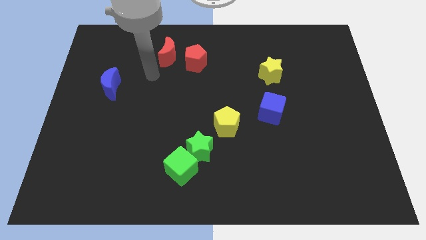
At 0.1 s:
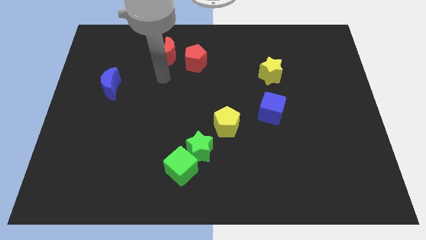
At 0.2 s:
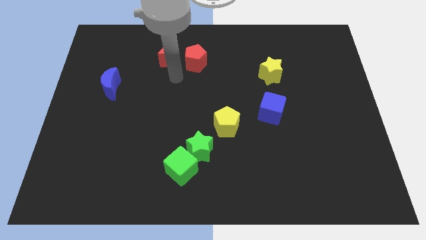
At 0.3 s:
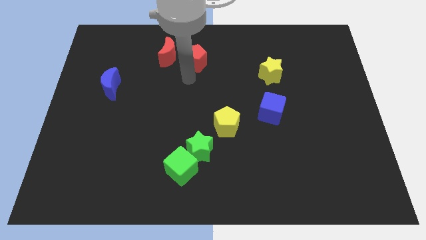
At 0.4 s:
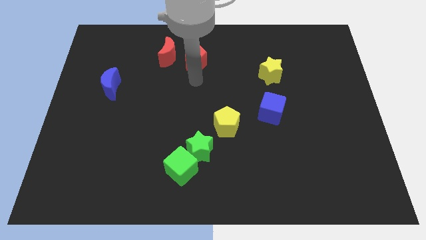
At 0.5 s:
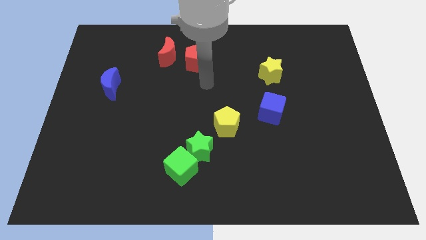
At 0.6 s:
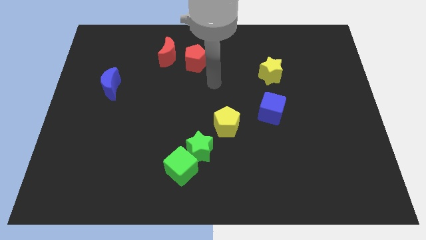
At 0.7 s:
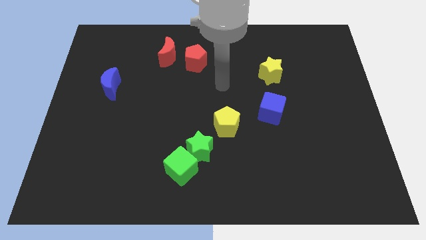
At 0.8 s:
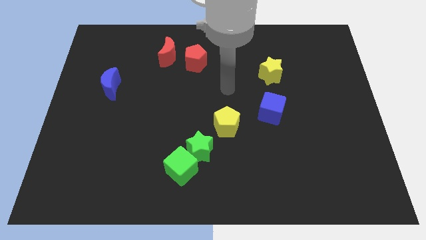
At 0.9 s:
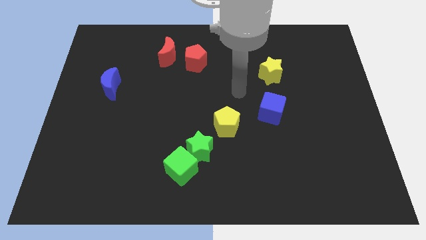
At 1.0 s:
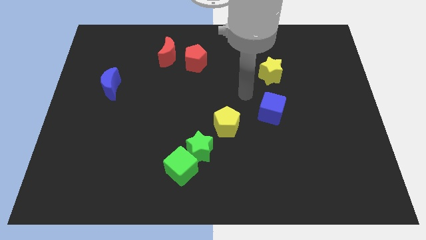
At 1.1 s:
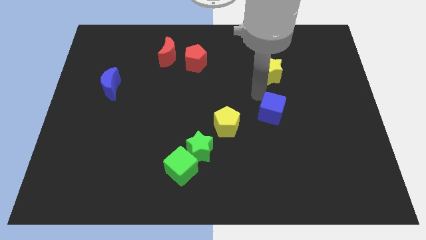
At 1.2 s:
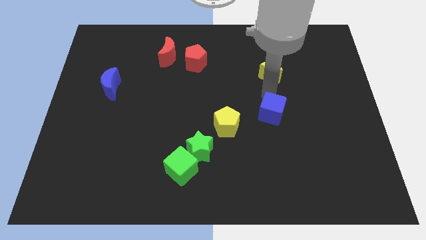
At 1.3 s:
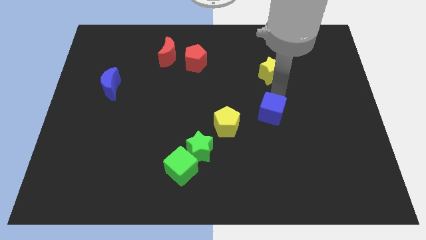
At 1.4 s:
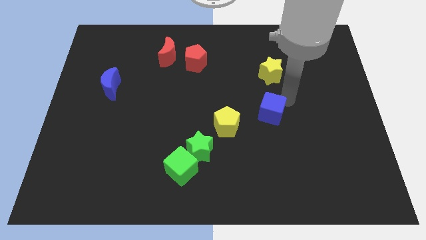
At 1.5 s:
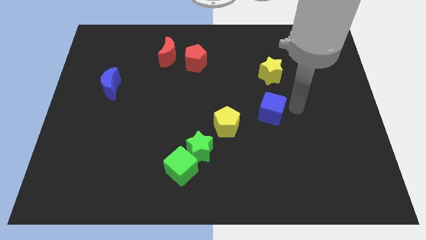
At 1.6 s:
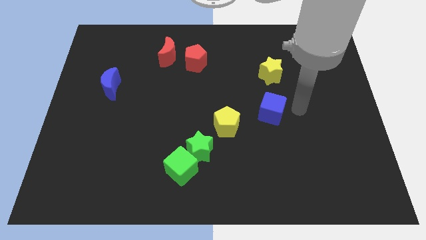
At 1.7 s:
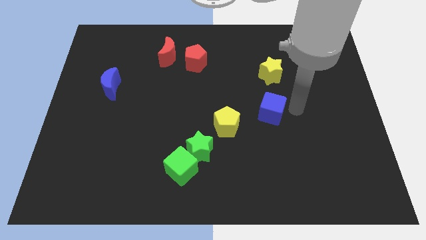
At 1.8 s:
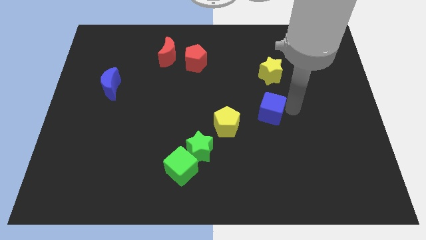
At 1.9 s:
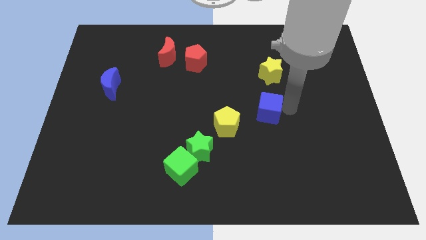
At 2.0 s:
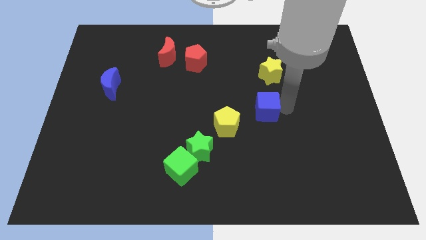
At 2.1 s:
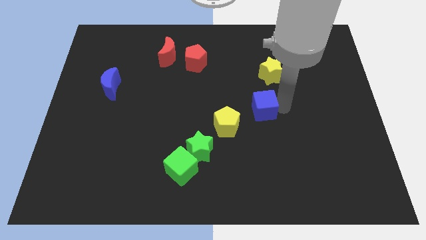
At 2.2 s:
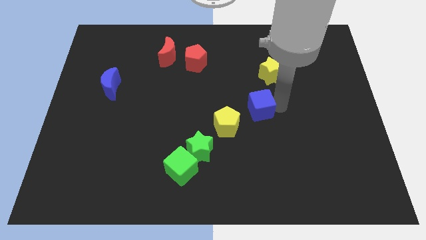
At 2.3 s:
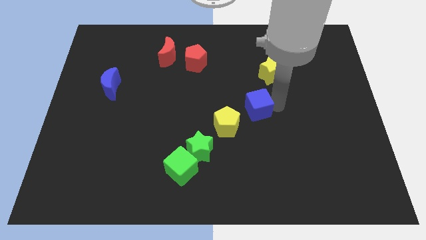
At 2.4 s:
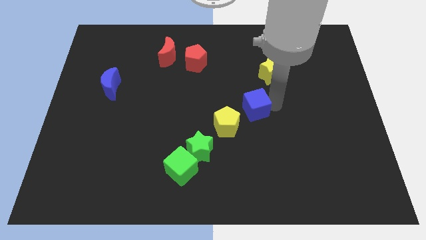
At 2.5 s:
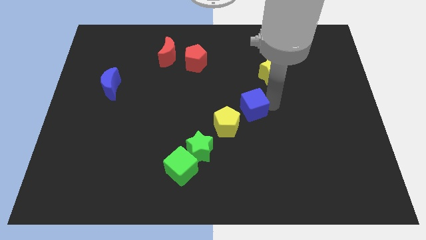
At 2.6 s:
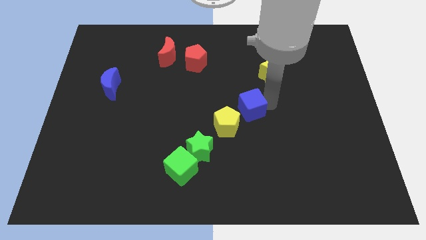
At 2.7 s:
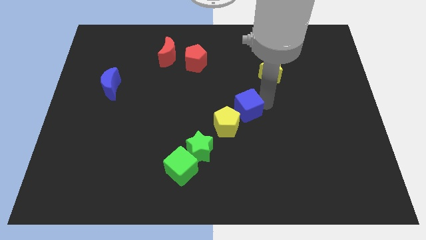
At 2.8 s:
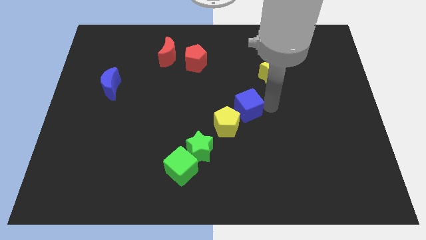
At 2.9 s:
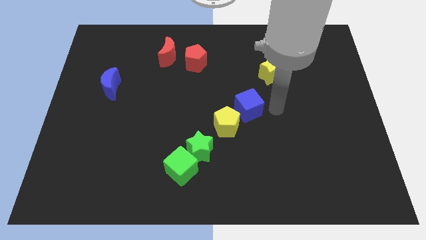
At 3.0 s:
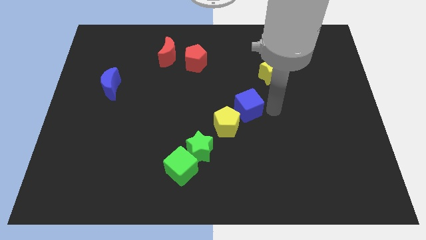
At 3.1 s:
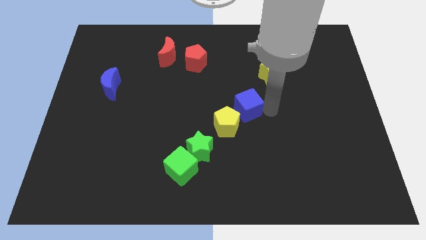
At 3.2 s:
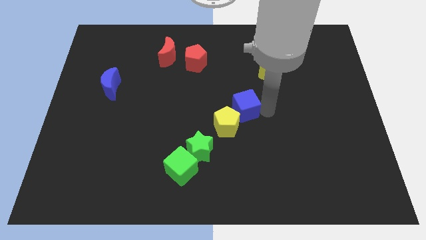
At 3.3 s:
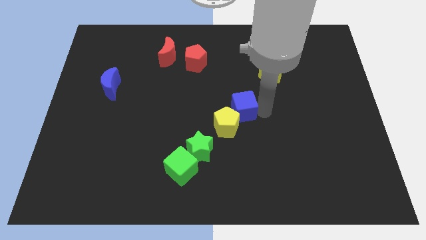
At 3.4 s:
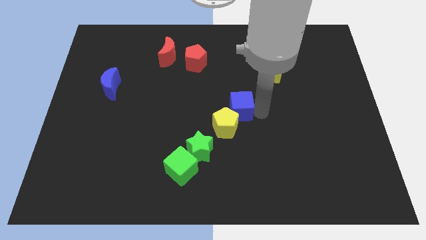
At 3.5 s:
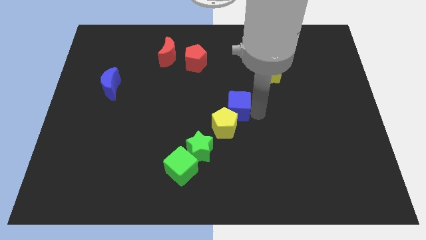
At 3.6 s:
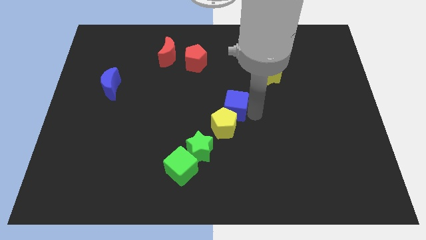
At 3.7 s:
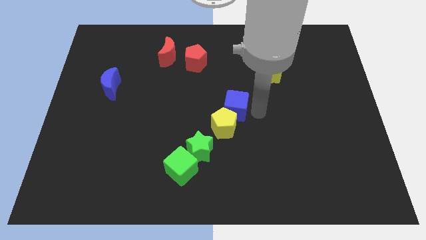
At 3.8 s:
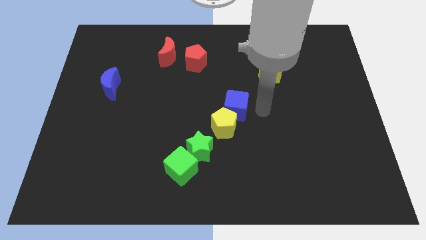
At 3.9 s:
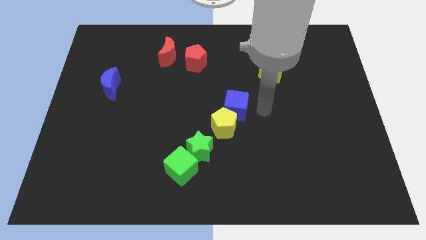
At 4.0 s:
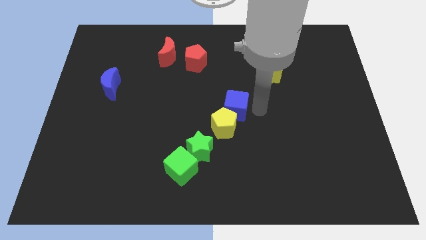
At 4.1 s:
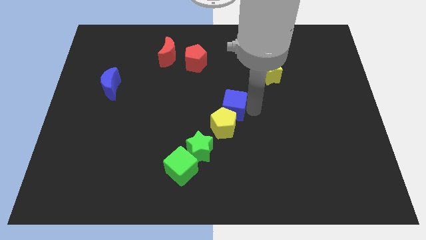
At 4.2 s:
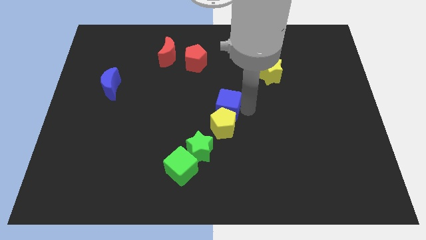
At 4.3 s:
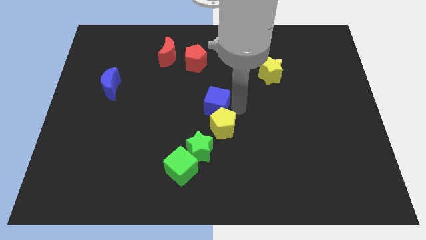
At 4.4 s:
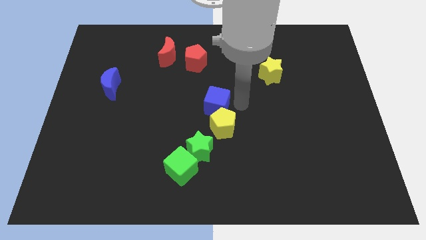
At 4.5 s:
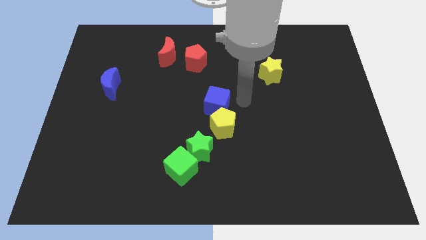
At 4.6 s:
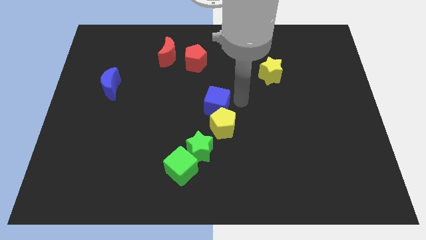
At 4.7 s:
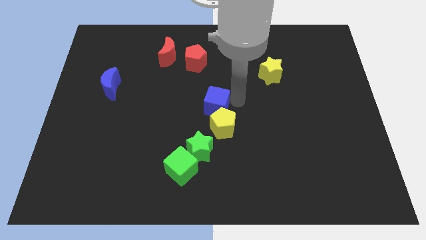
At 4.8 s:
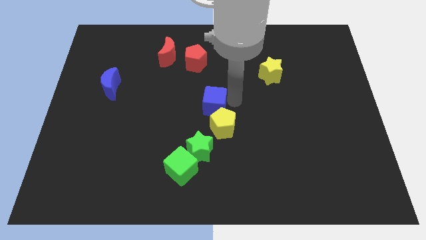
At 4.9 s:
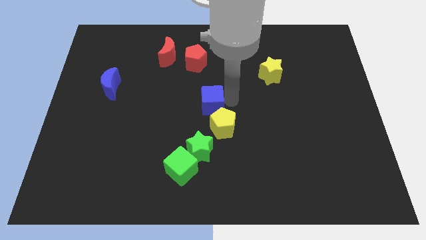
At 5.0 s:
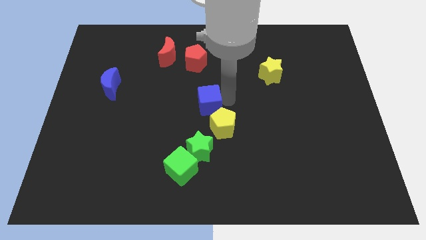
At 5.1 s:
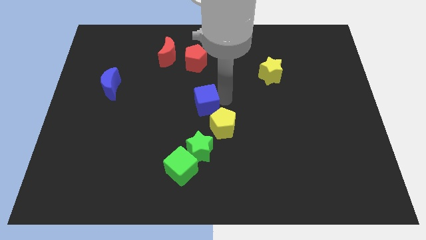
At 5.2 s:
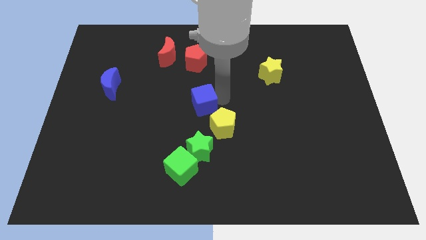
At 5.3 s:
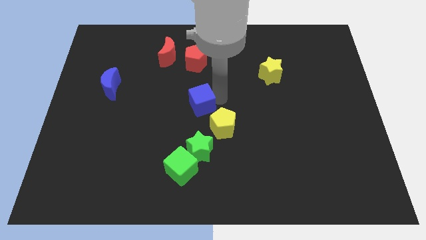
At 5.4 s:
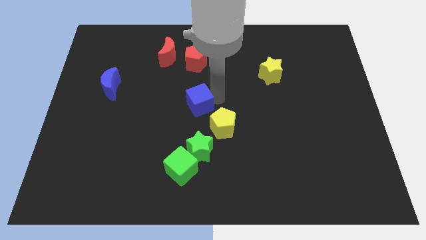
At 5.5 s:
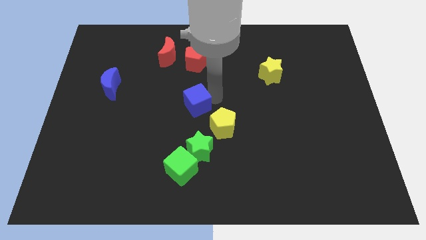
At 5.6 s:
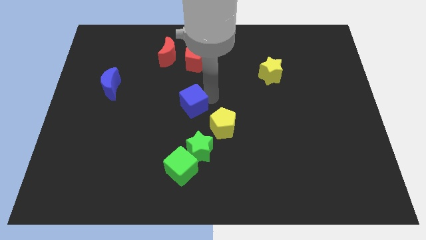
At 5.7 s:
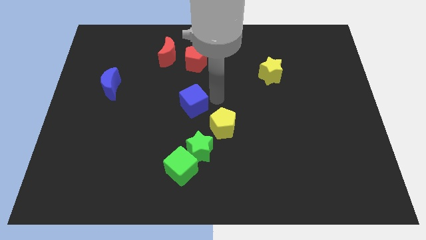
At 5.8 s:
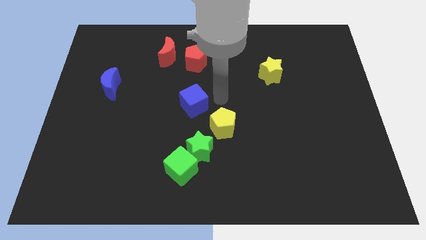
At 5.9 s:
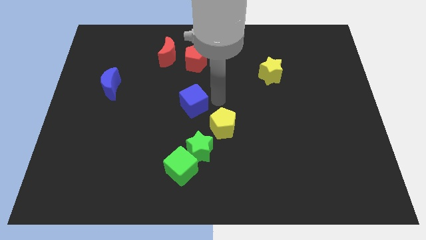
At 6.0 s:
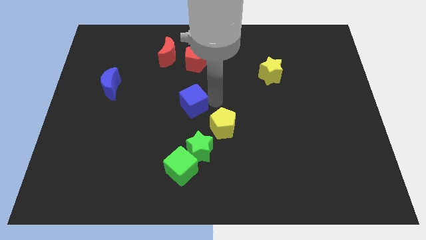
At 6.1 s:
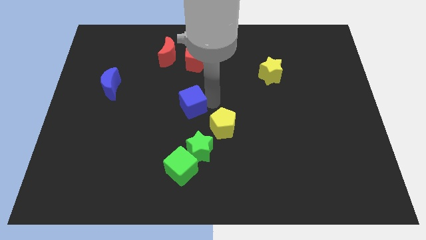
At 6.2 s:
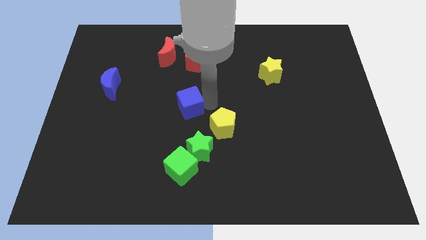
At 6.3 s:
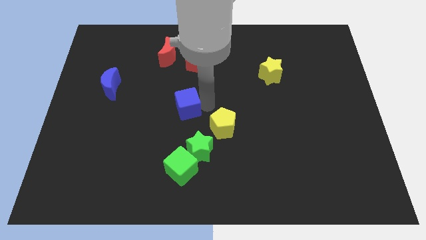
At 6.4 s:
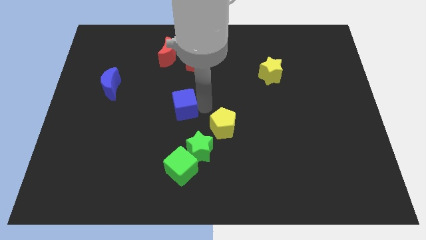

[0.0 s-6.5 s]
push the blue cube to the left

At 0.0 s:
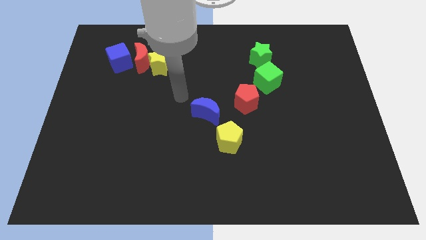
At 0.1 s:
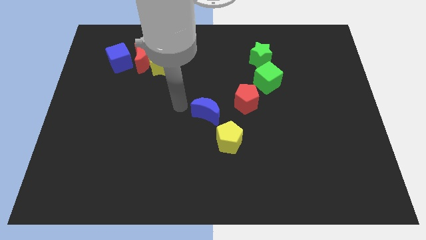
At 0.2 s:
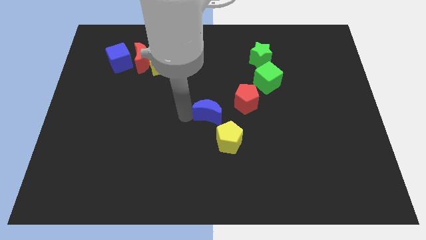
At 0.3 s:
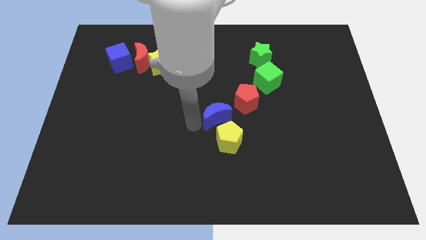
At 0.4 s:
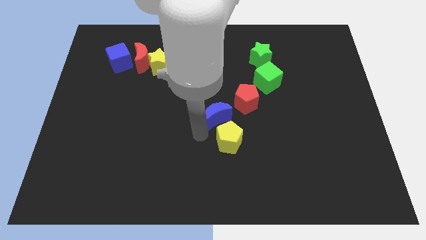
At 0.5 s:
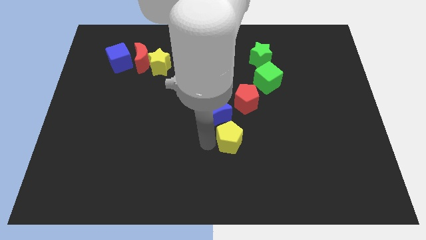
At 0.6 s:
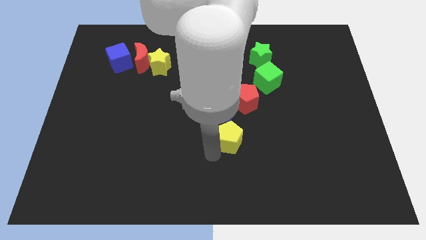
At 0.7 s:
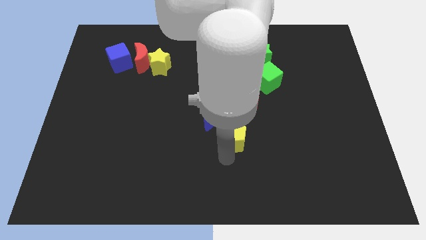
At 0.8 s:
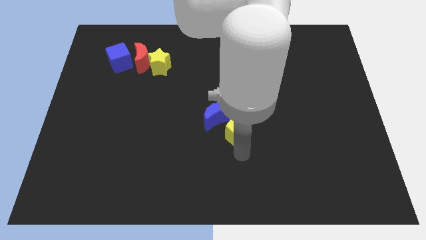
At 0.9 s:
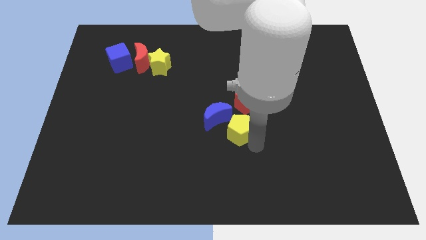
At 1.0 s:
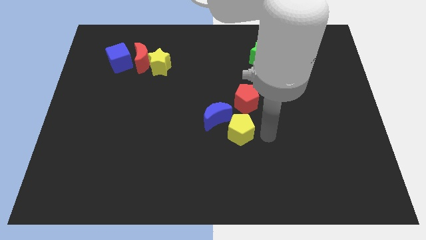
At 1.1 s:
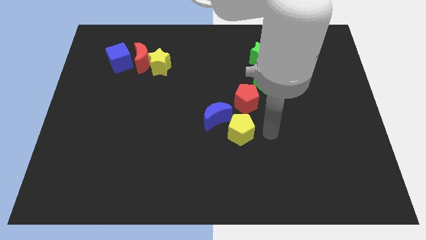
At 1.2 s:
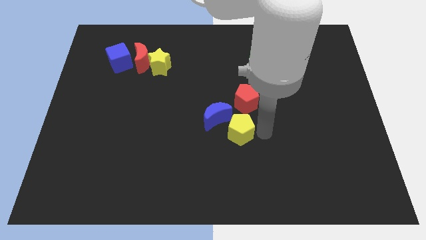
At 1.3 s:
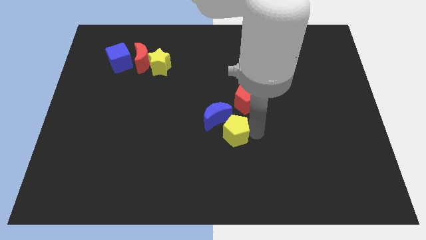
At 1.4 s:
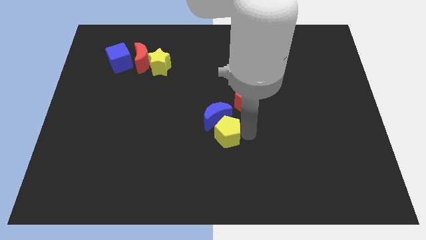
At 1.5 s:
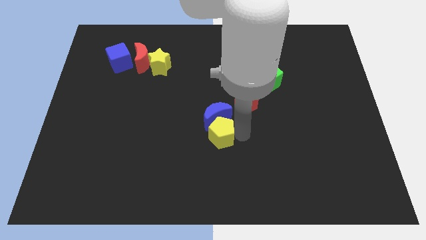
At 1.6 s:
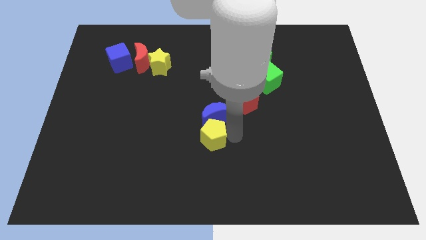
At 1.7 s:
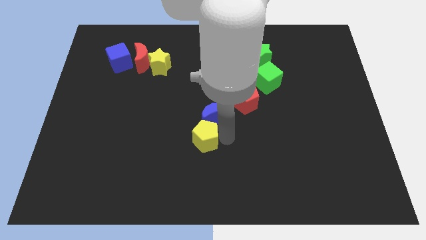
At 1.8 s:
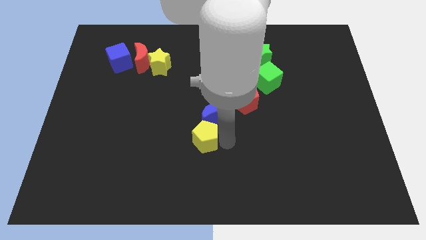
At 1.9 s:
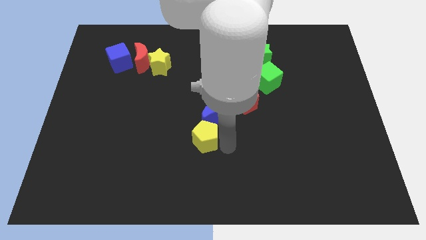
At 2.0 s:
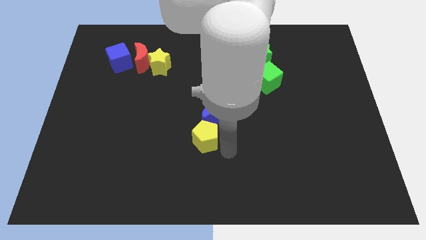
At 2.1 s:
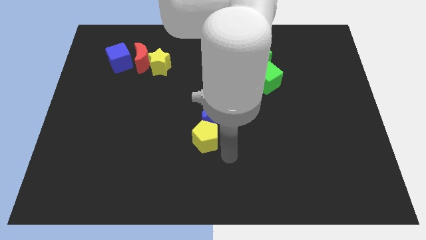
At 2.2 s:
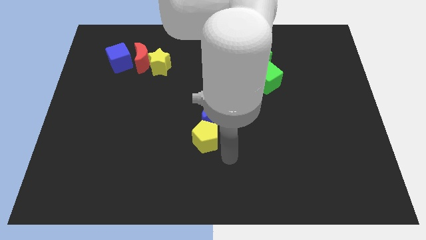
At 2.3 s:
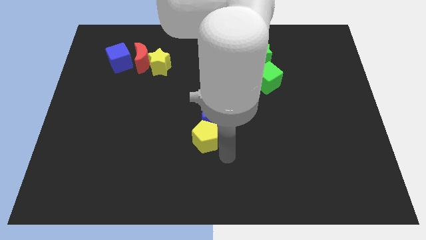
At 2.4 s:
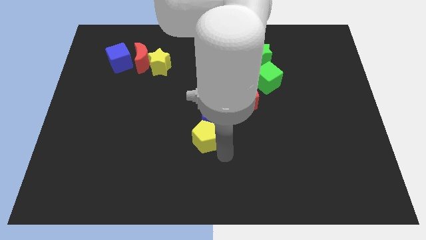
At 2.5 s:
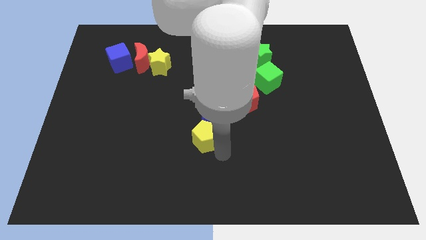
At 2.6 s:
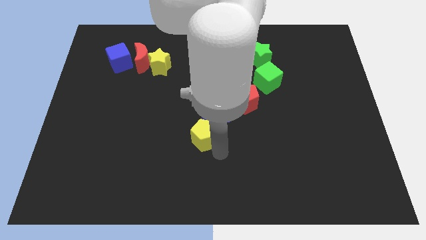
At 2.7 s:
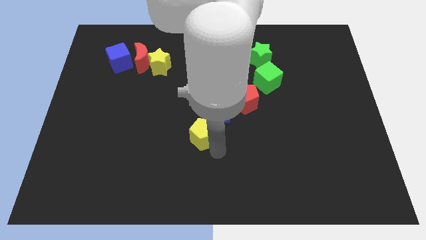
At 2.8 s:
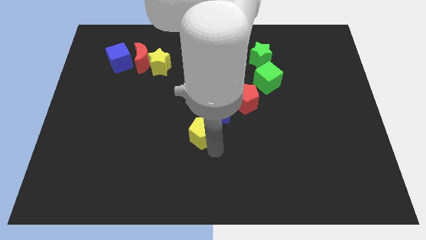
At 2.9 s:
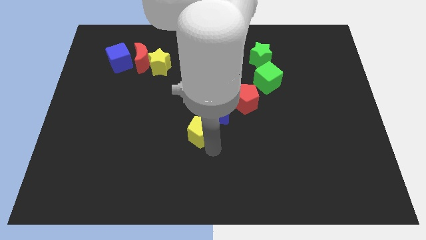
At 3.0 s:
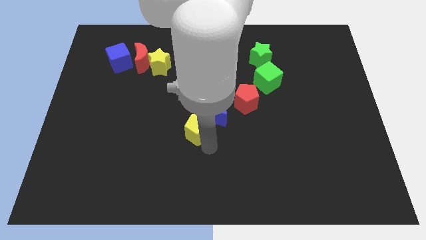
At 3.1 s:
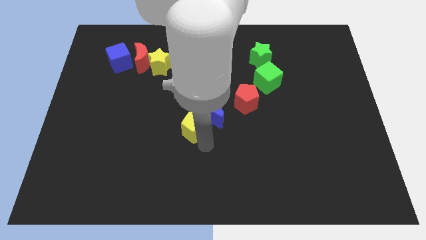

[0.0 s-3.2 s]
slide the yellow pentagon up and then left slightly
